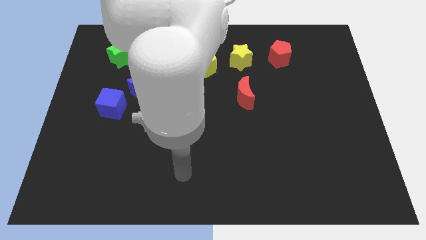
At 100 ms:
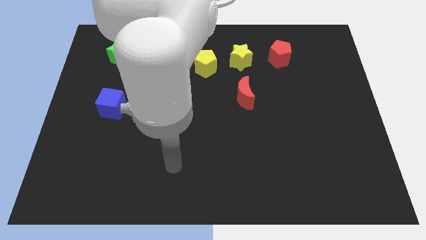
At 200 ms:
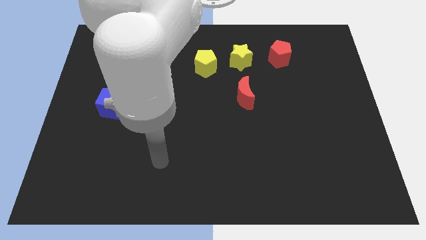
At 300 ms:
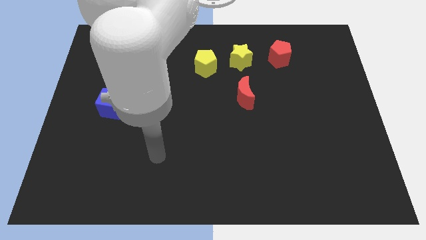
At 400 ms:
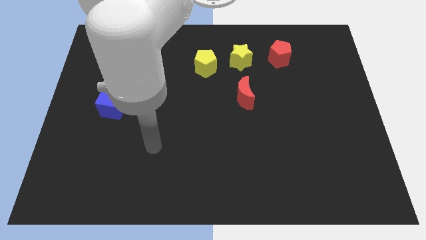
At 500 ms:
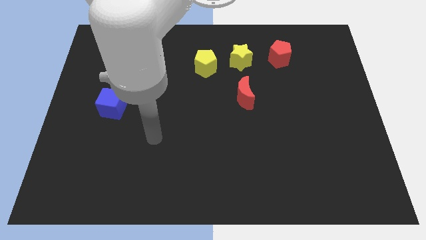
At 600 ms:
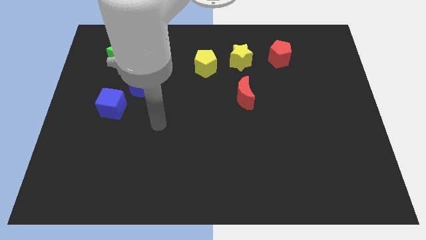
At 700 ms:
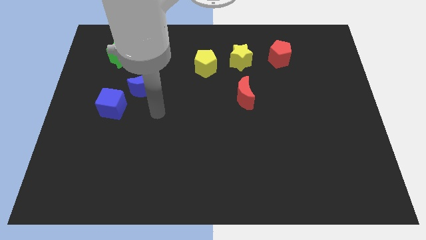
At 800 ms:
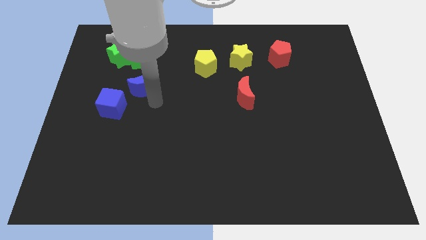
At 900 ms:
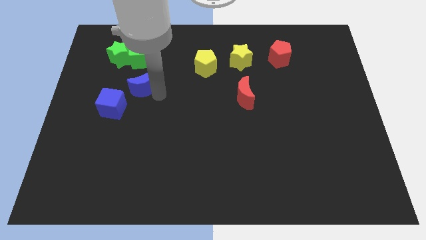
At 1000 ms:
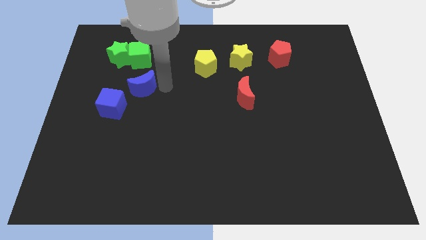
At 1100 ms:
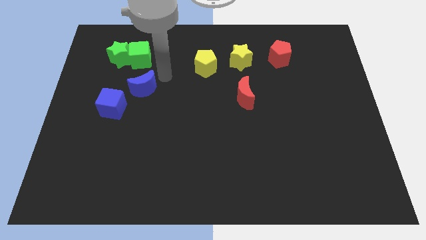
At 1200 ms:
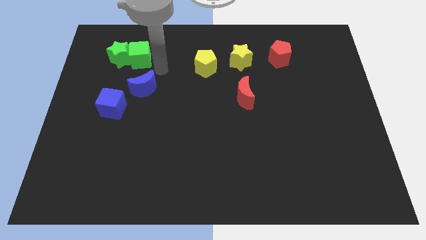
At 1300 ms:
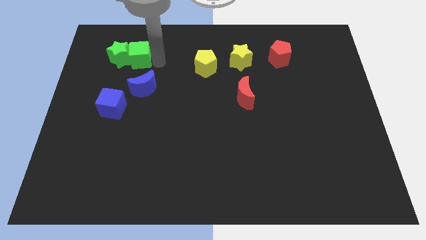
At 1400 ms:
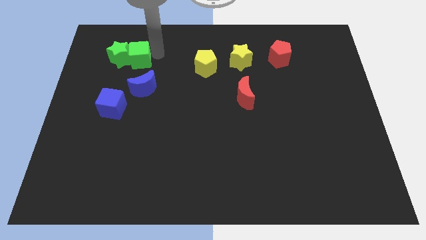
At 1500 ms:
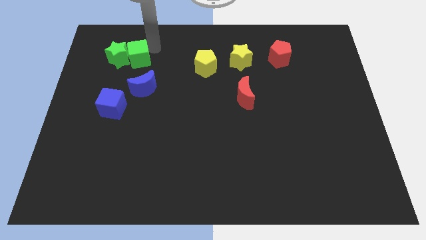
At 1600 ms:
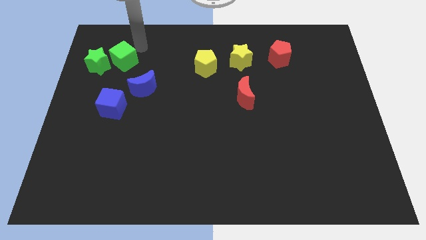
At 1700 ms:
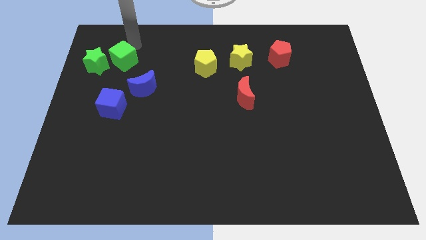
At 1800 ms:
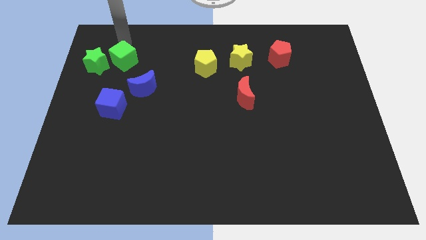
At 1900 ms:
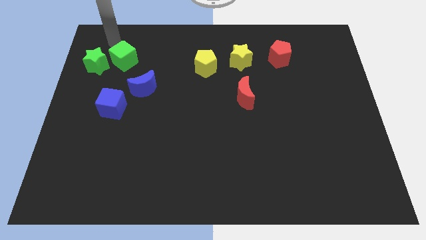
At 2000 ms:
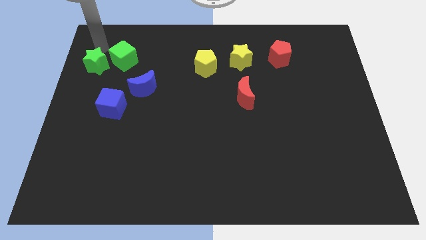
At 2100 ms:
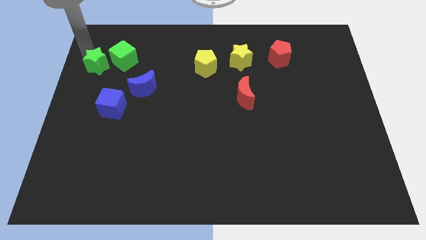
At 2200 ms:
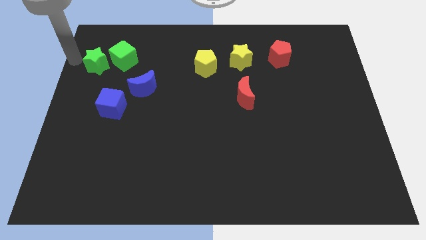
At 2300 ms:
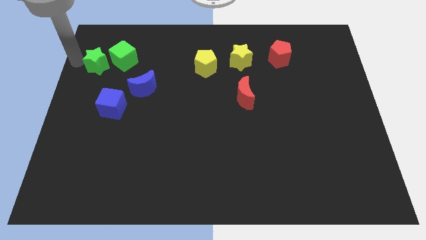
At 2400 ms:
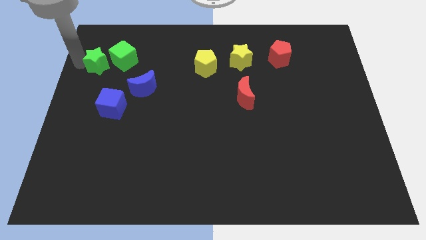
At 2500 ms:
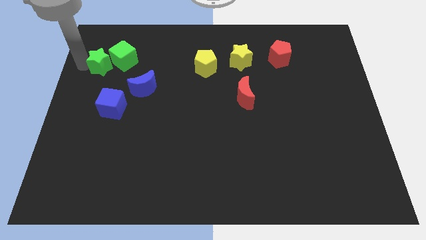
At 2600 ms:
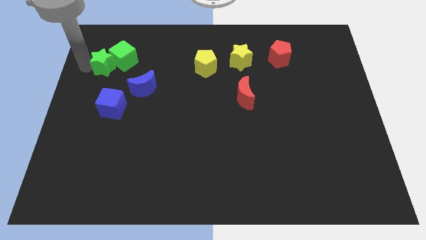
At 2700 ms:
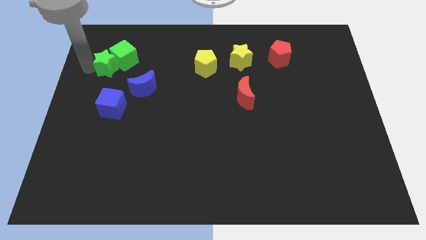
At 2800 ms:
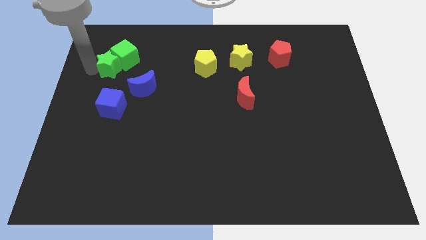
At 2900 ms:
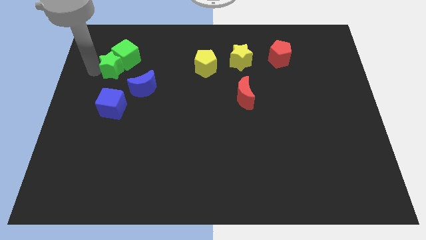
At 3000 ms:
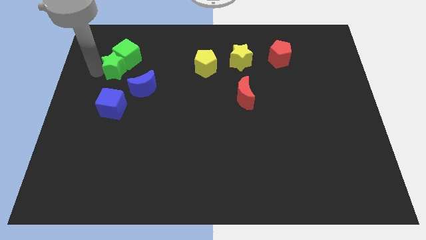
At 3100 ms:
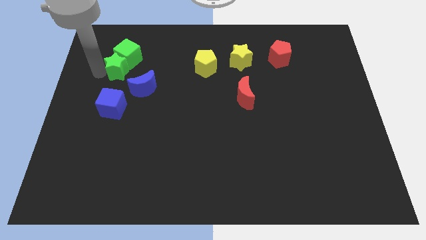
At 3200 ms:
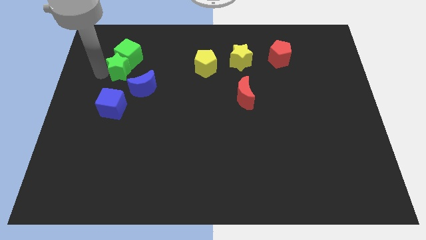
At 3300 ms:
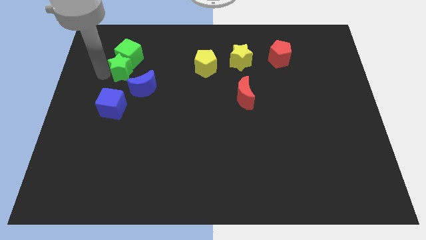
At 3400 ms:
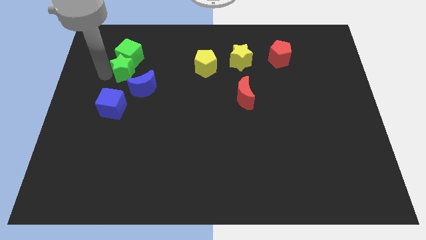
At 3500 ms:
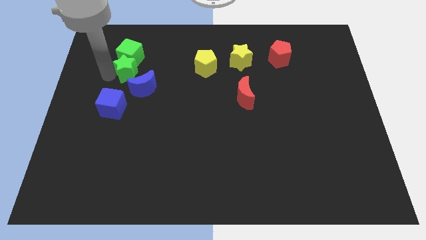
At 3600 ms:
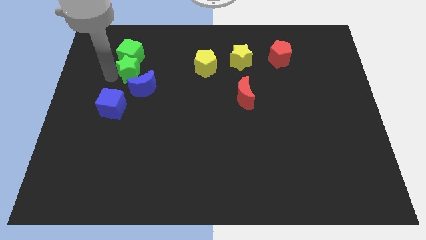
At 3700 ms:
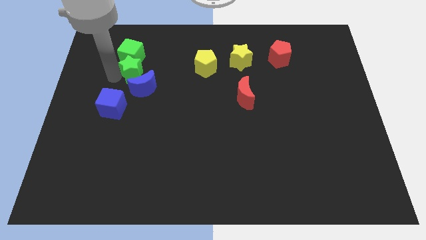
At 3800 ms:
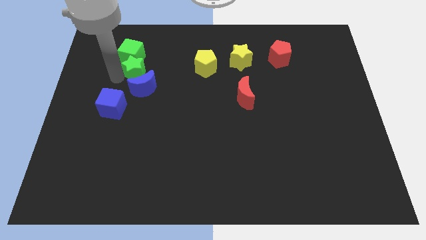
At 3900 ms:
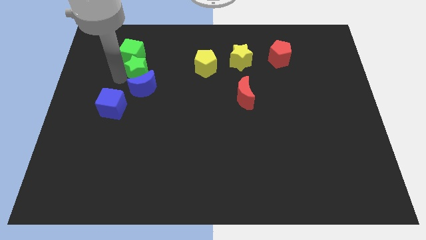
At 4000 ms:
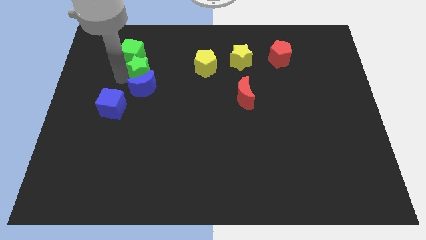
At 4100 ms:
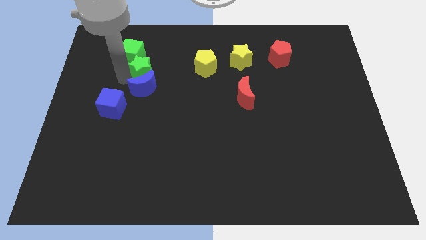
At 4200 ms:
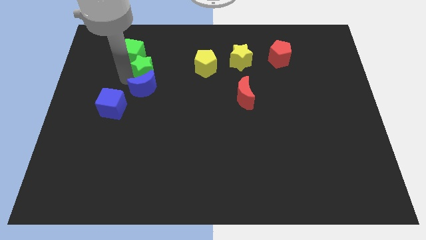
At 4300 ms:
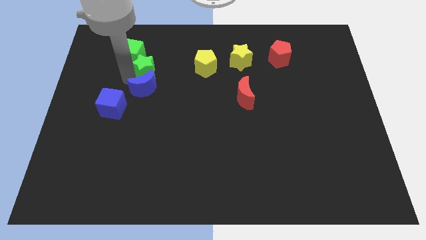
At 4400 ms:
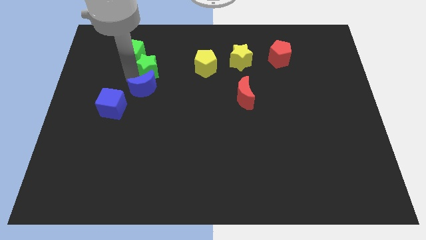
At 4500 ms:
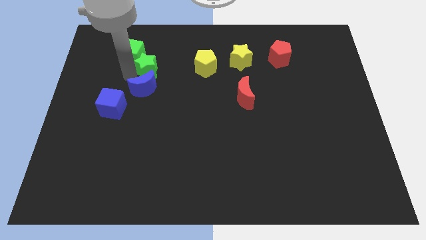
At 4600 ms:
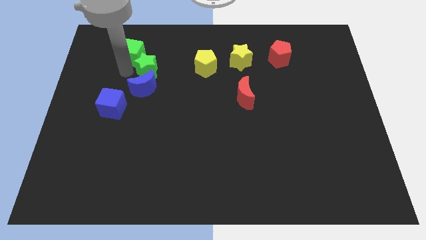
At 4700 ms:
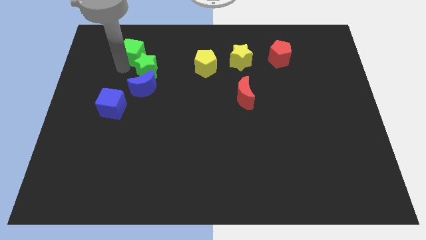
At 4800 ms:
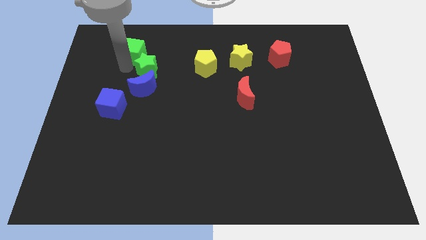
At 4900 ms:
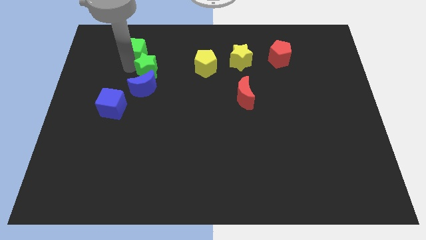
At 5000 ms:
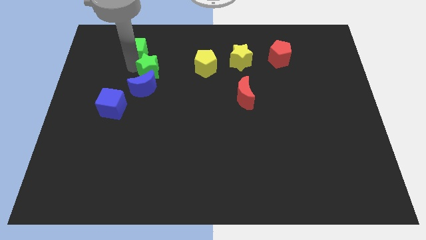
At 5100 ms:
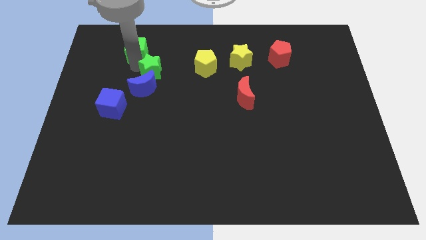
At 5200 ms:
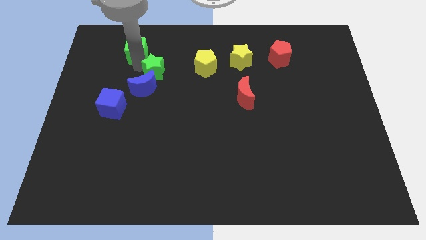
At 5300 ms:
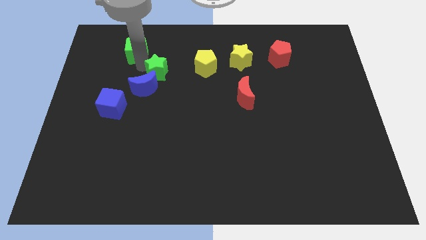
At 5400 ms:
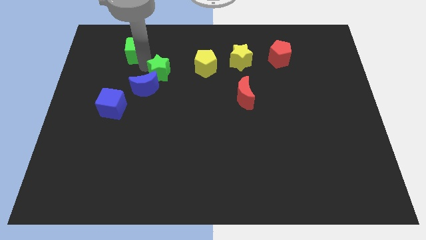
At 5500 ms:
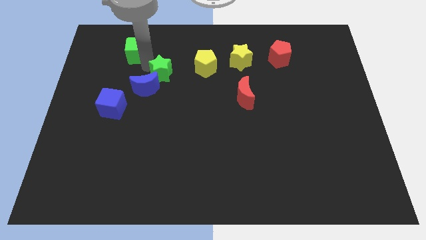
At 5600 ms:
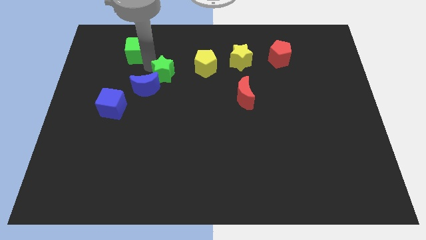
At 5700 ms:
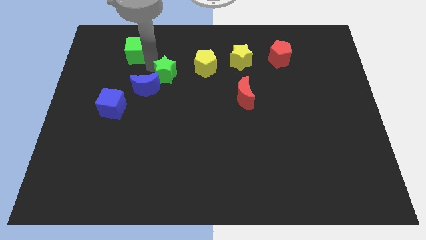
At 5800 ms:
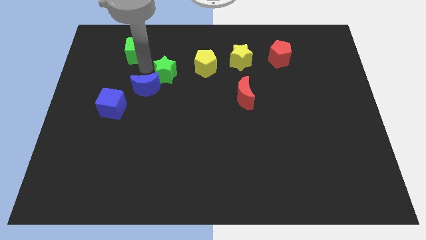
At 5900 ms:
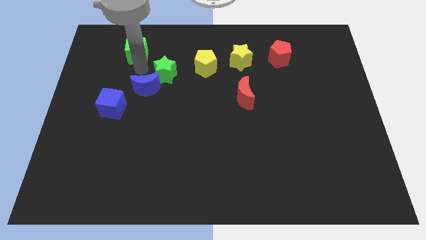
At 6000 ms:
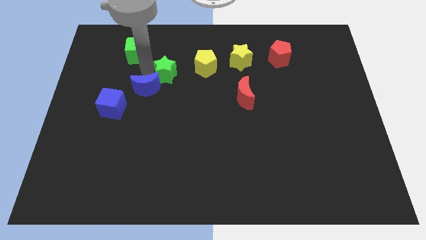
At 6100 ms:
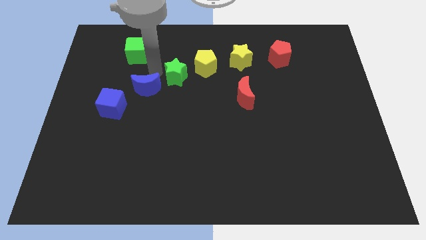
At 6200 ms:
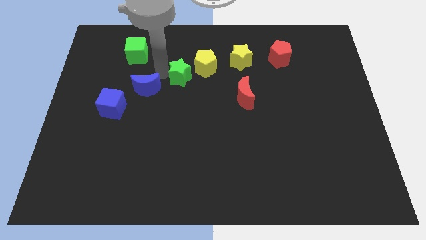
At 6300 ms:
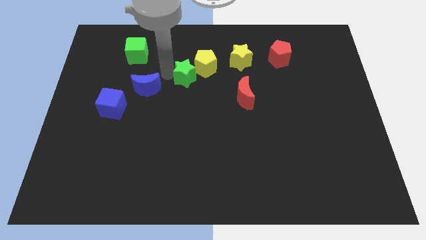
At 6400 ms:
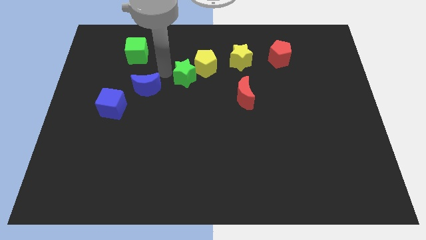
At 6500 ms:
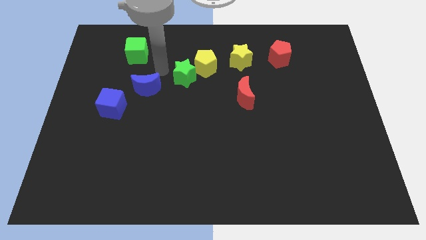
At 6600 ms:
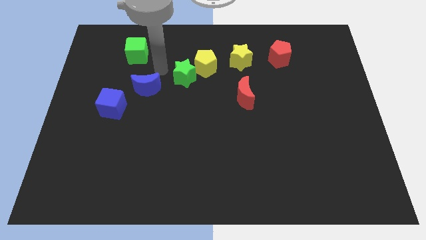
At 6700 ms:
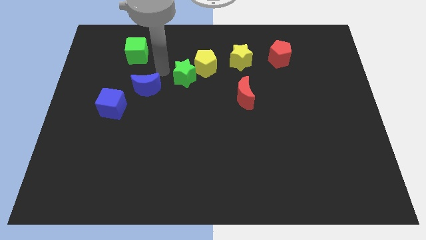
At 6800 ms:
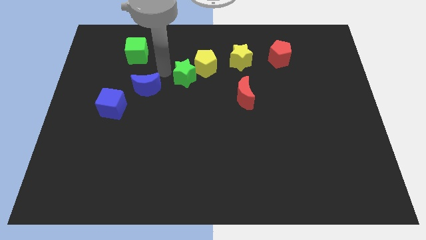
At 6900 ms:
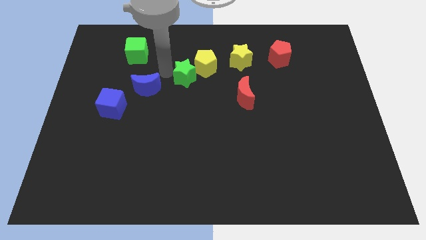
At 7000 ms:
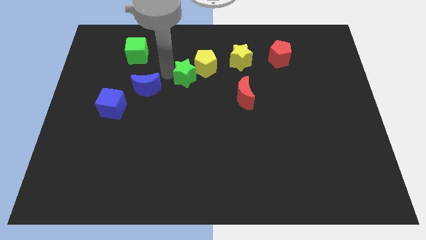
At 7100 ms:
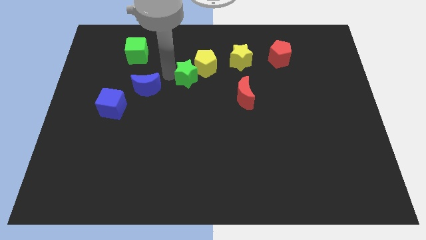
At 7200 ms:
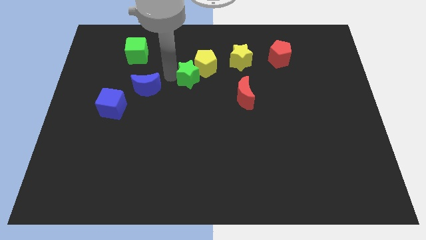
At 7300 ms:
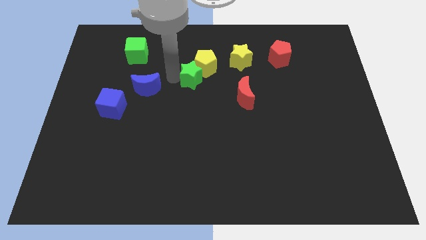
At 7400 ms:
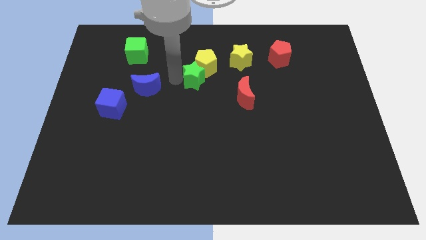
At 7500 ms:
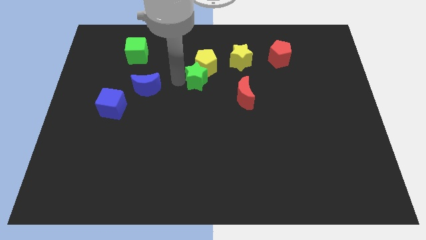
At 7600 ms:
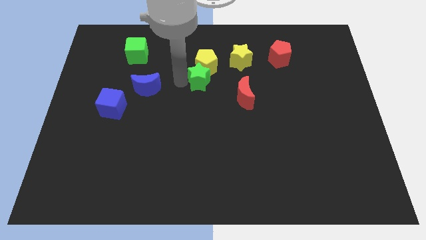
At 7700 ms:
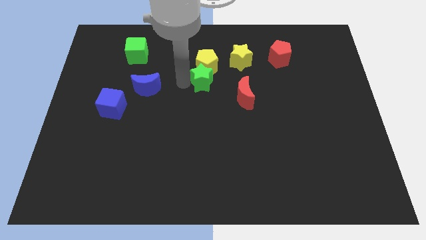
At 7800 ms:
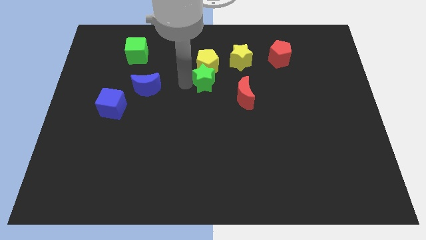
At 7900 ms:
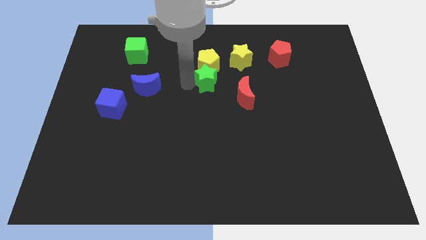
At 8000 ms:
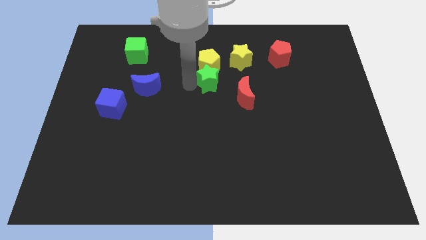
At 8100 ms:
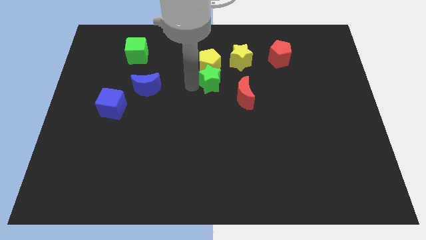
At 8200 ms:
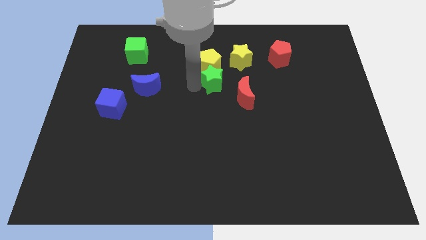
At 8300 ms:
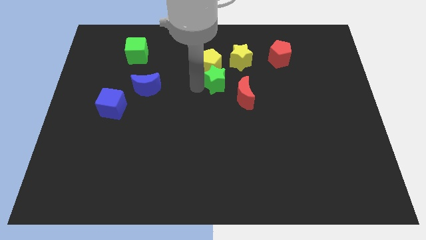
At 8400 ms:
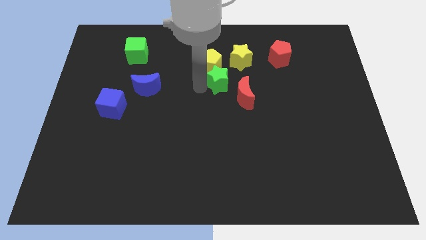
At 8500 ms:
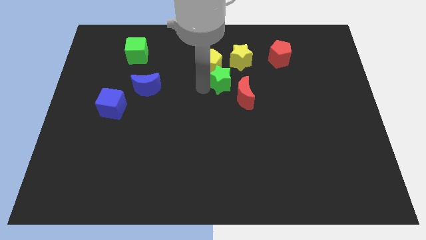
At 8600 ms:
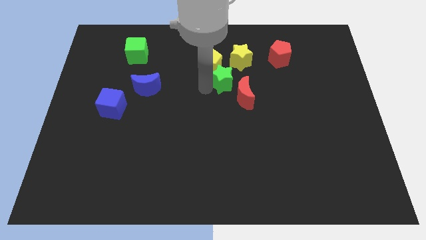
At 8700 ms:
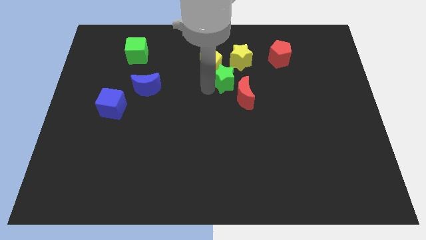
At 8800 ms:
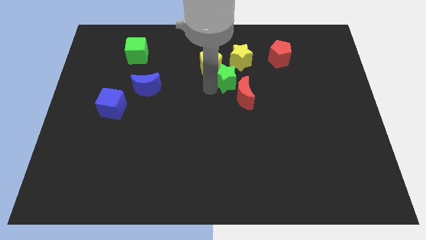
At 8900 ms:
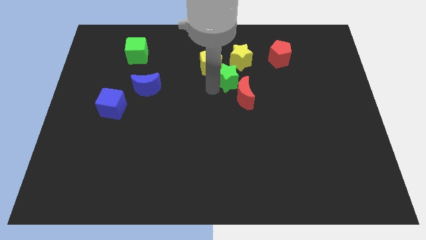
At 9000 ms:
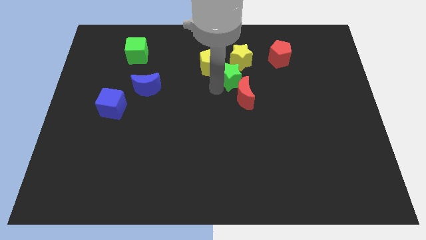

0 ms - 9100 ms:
push the green star to the right side of the yellow pentagon
